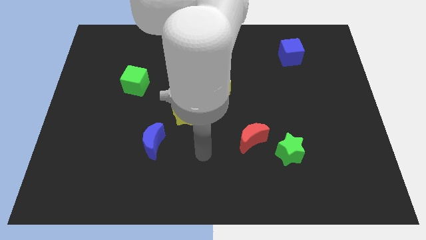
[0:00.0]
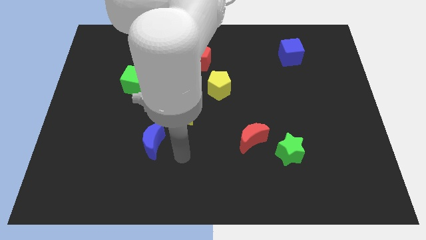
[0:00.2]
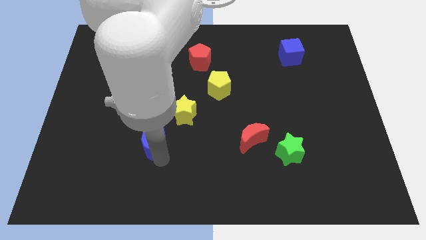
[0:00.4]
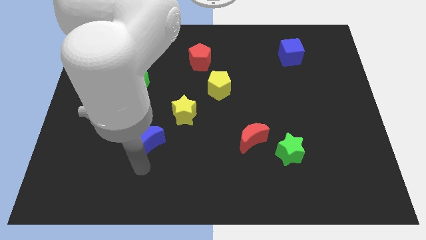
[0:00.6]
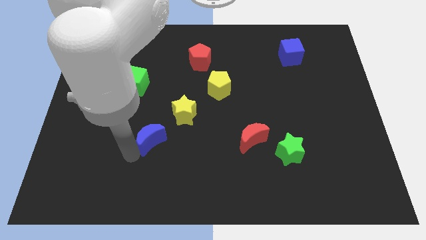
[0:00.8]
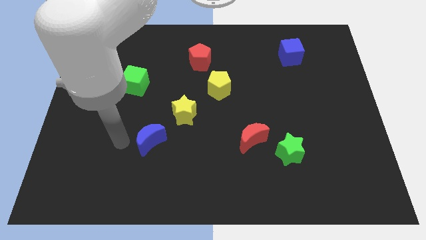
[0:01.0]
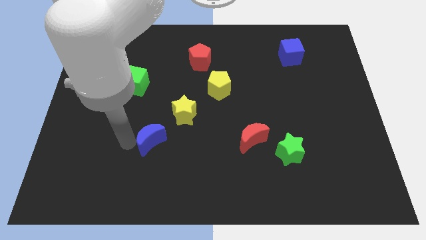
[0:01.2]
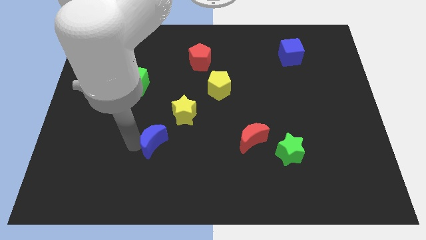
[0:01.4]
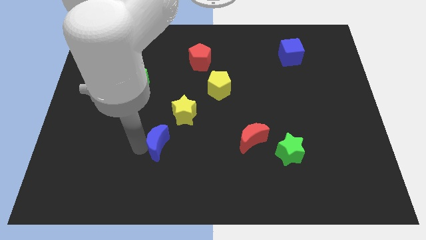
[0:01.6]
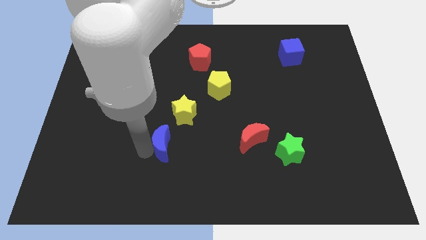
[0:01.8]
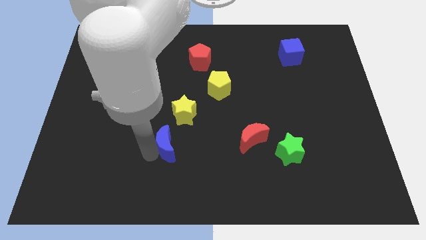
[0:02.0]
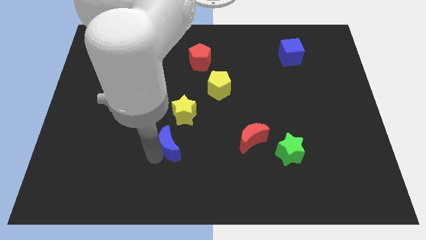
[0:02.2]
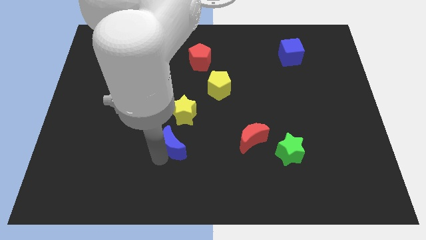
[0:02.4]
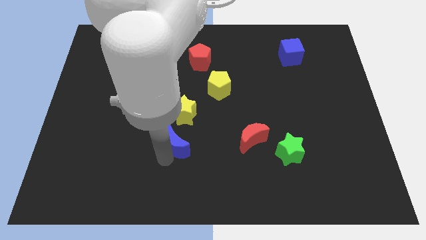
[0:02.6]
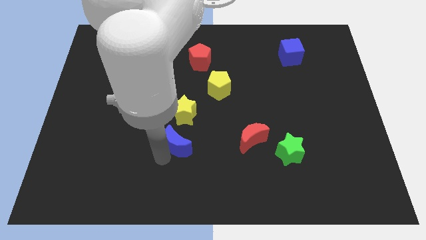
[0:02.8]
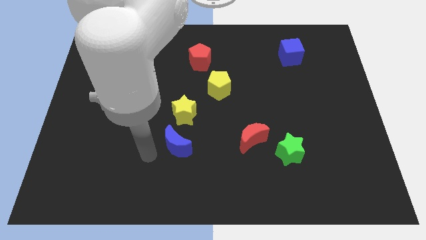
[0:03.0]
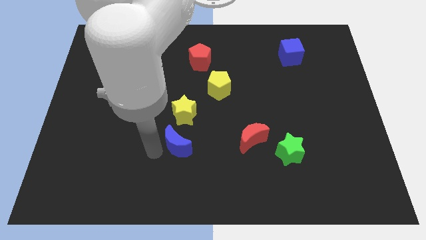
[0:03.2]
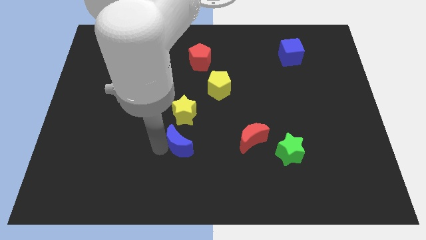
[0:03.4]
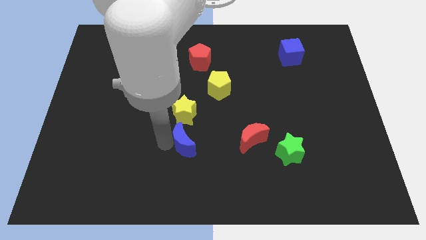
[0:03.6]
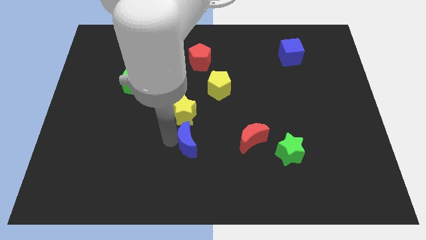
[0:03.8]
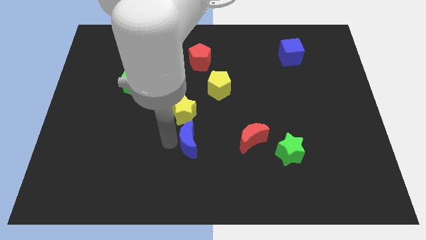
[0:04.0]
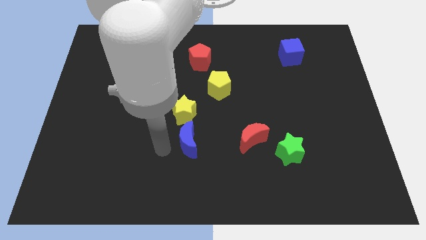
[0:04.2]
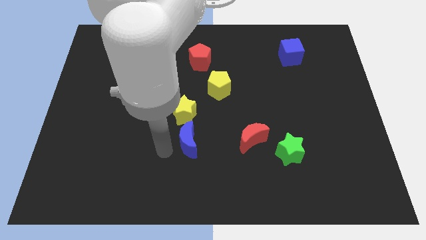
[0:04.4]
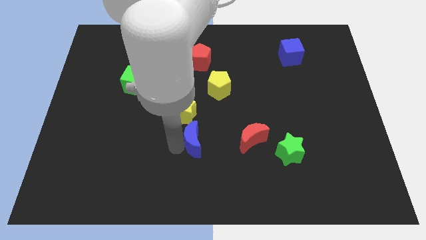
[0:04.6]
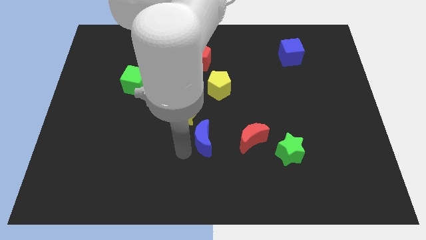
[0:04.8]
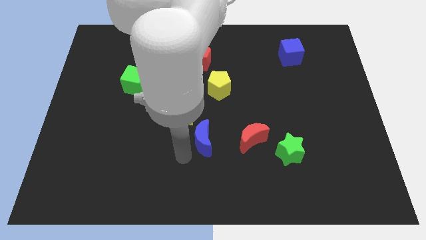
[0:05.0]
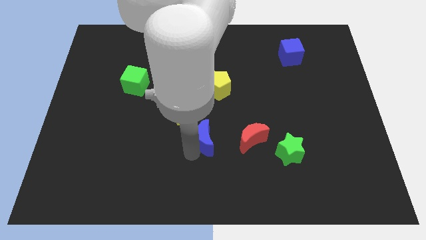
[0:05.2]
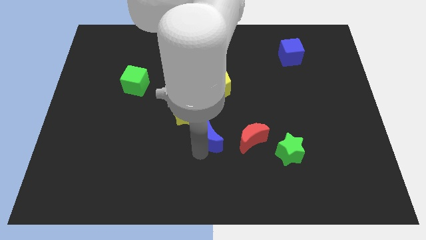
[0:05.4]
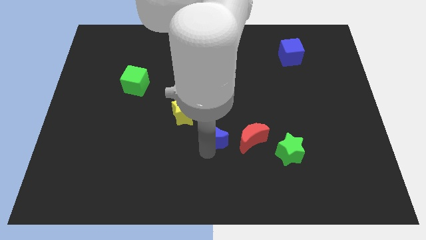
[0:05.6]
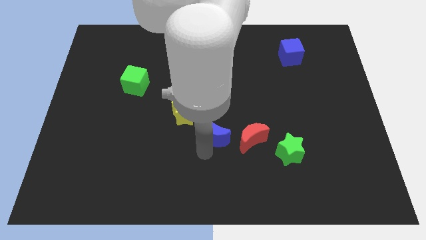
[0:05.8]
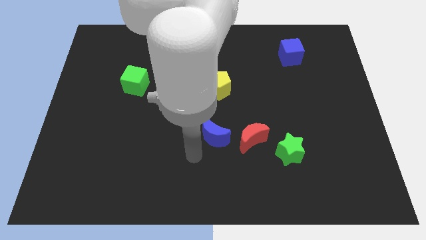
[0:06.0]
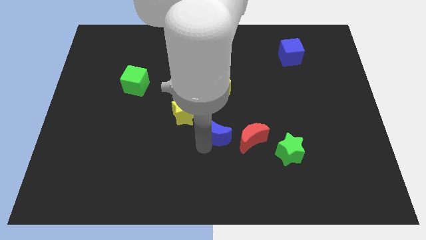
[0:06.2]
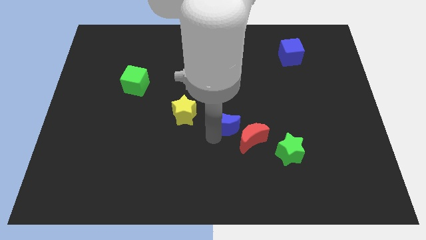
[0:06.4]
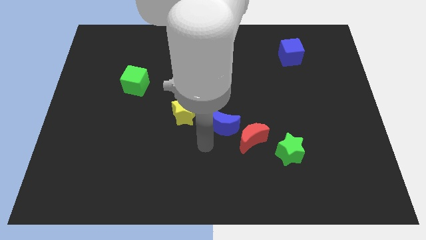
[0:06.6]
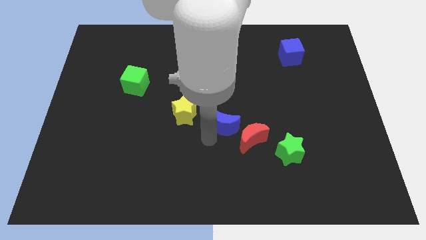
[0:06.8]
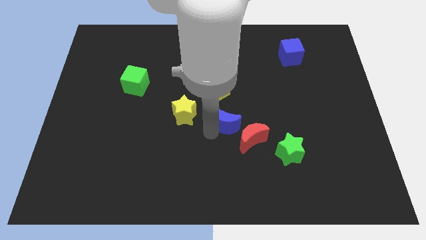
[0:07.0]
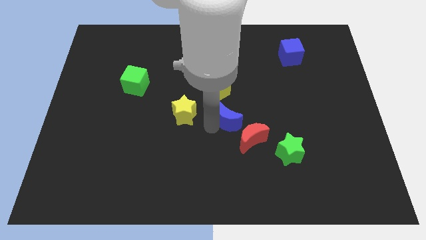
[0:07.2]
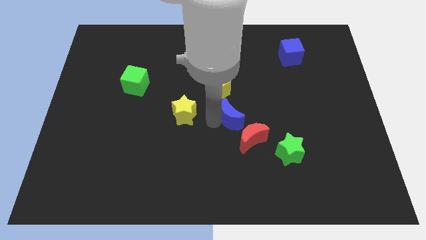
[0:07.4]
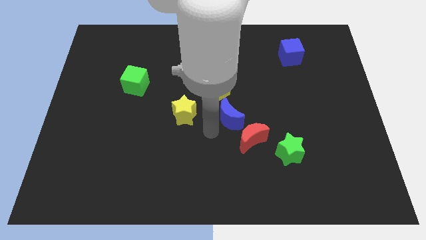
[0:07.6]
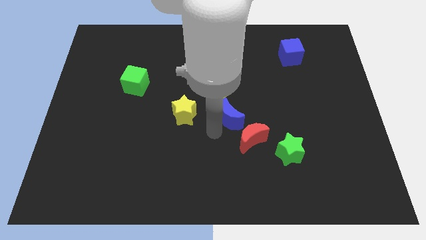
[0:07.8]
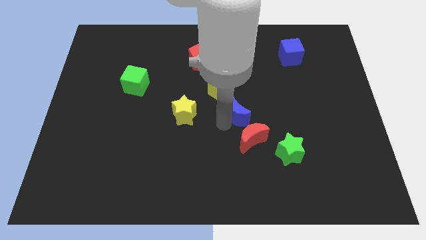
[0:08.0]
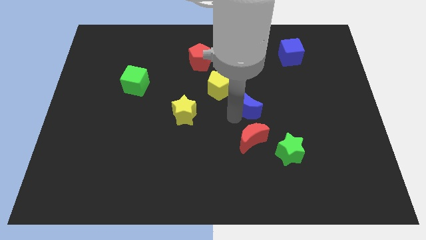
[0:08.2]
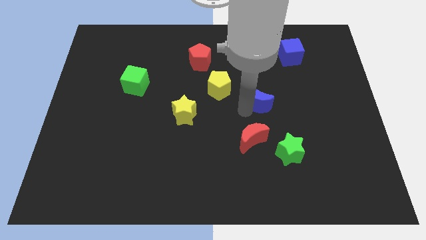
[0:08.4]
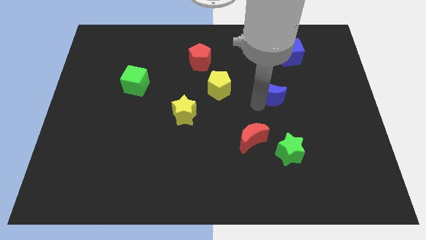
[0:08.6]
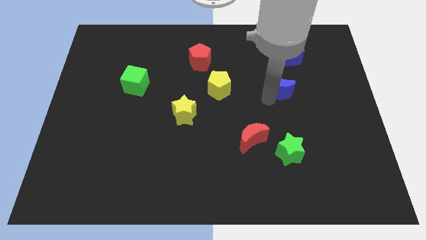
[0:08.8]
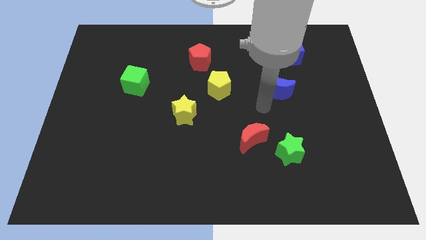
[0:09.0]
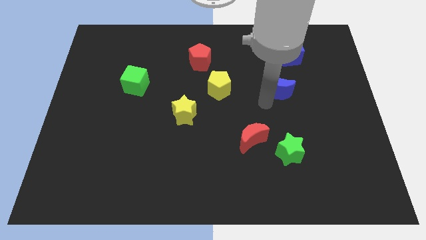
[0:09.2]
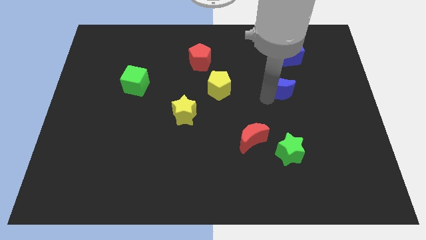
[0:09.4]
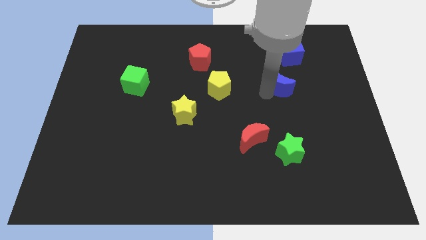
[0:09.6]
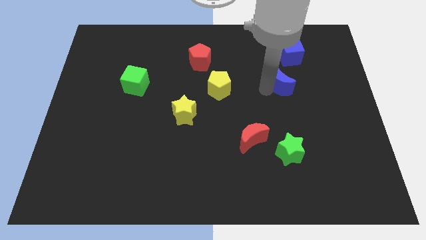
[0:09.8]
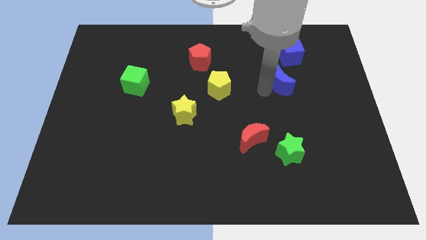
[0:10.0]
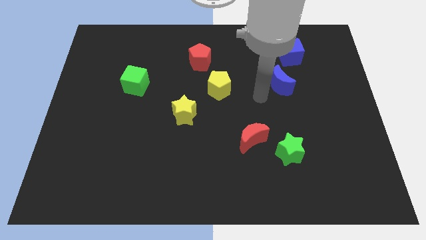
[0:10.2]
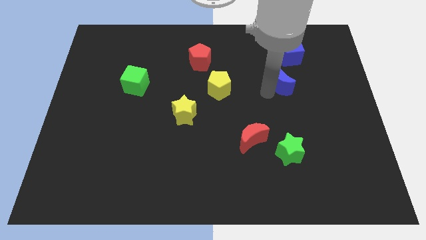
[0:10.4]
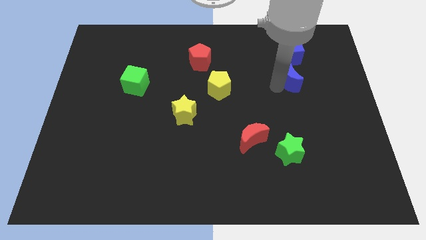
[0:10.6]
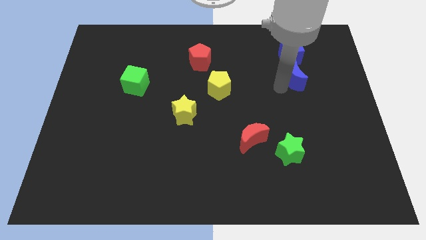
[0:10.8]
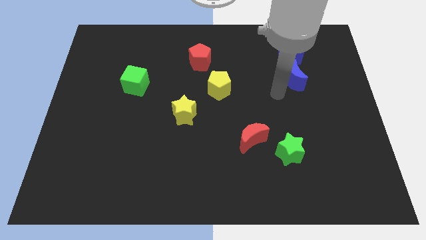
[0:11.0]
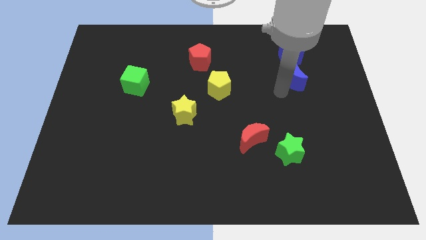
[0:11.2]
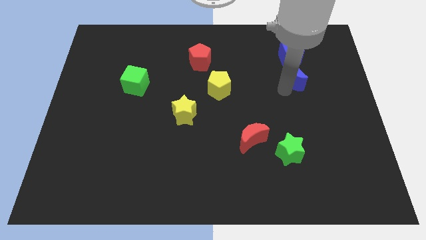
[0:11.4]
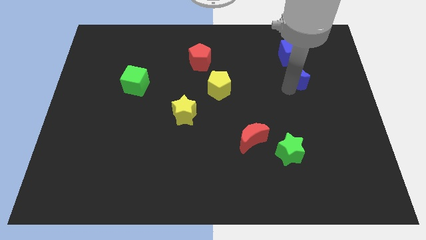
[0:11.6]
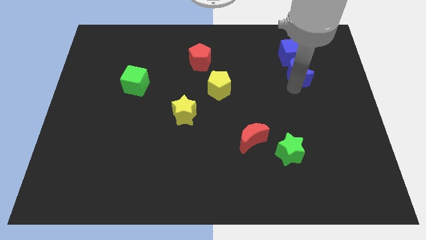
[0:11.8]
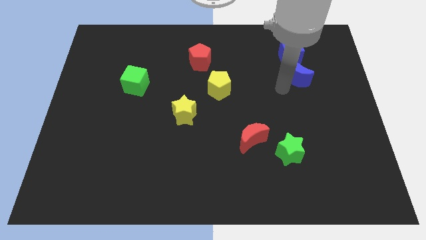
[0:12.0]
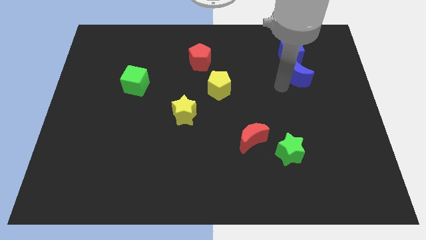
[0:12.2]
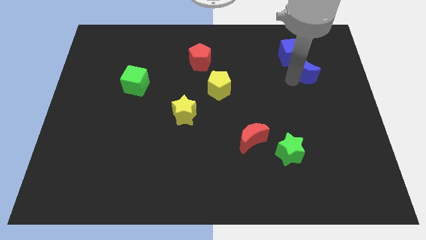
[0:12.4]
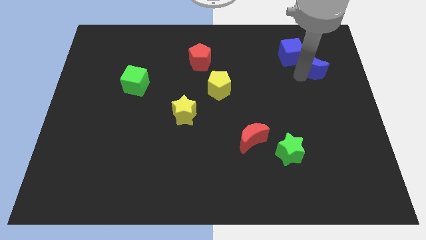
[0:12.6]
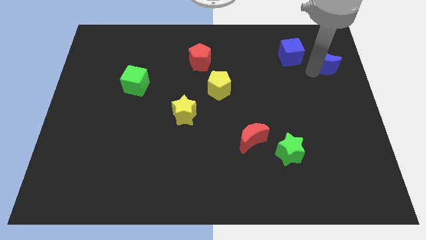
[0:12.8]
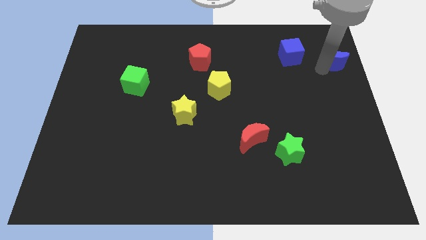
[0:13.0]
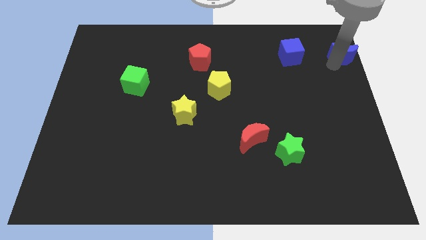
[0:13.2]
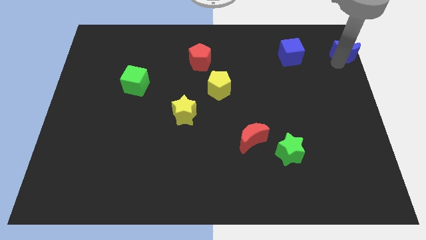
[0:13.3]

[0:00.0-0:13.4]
push the blue moon to the upper right corner

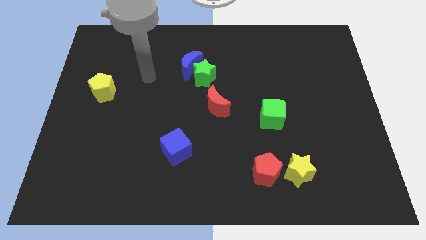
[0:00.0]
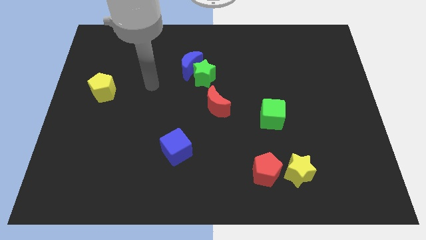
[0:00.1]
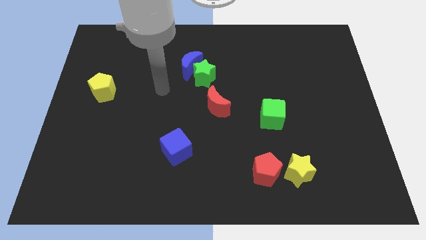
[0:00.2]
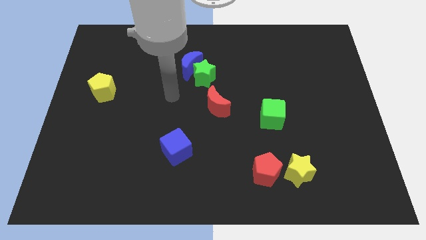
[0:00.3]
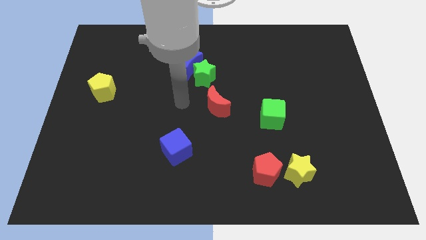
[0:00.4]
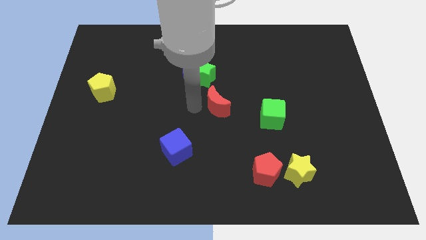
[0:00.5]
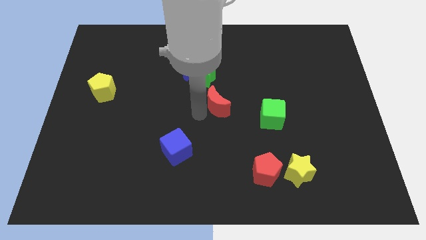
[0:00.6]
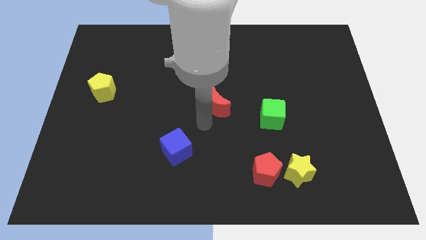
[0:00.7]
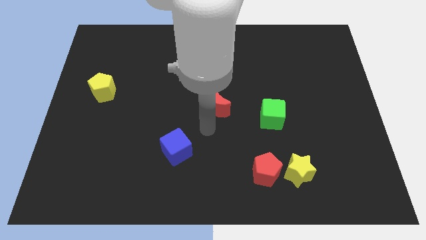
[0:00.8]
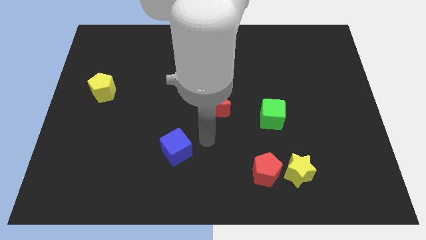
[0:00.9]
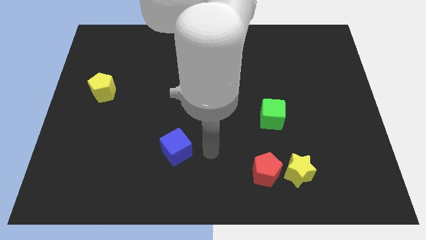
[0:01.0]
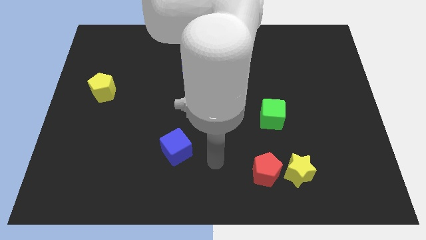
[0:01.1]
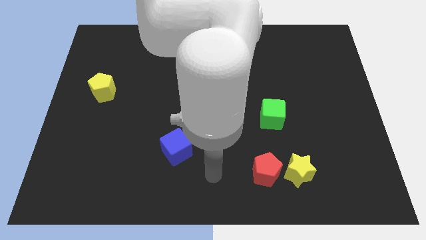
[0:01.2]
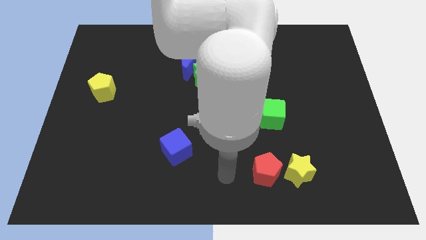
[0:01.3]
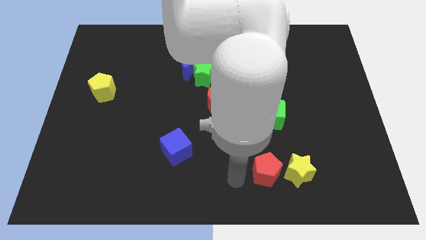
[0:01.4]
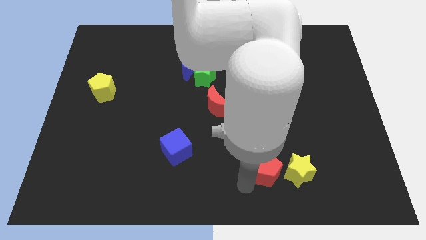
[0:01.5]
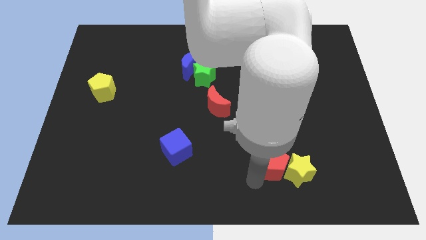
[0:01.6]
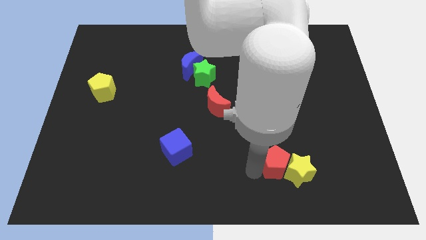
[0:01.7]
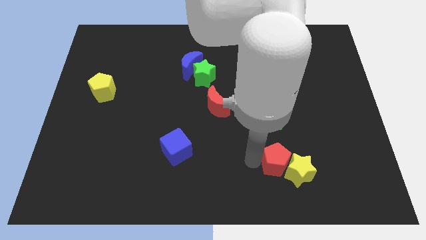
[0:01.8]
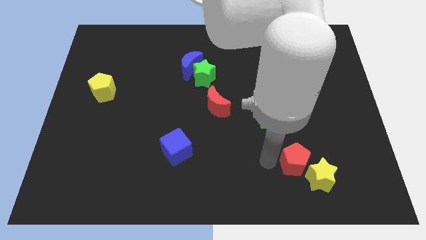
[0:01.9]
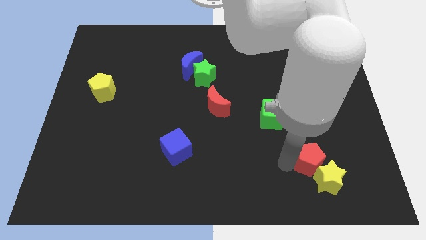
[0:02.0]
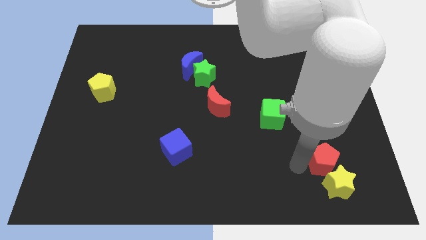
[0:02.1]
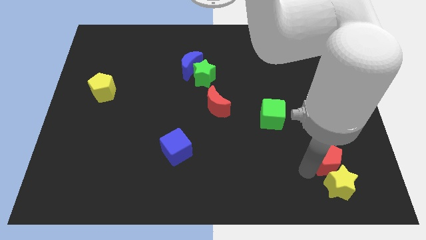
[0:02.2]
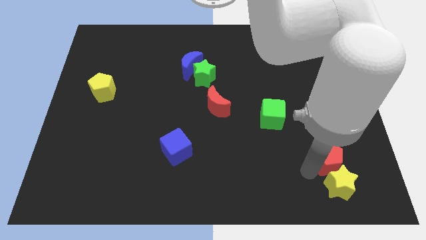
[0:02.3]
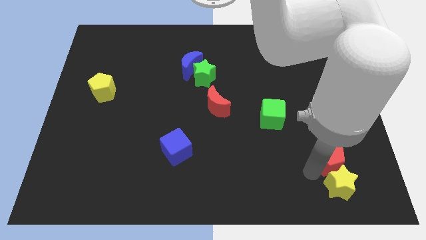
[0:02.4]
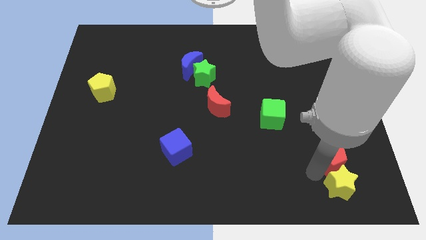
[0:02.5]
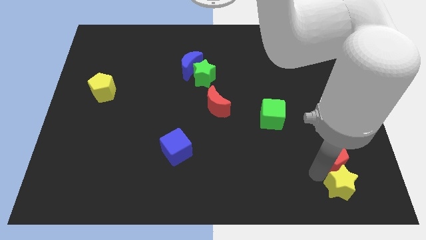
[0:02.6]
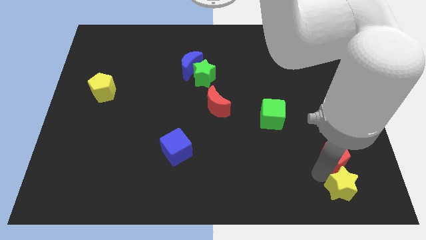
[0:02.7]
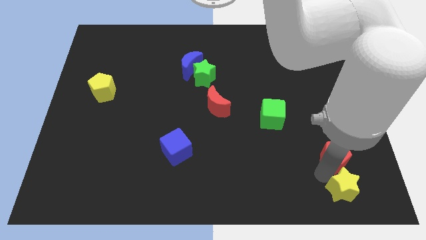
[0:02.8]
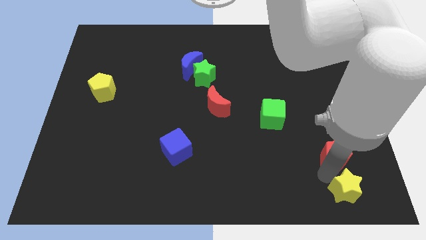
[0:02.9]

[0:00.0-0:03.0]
slide the yellow star to the lower right corner
